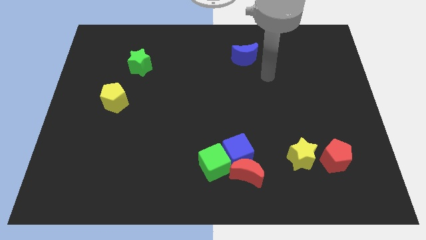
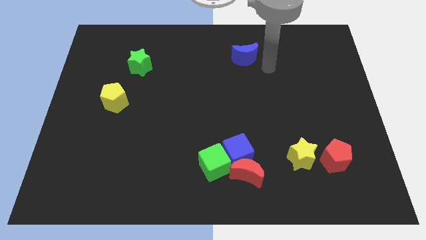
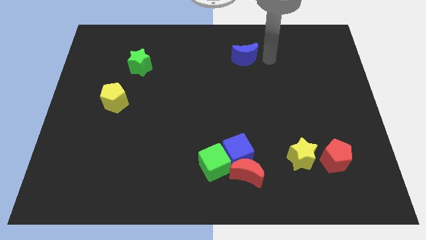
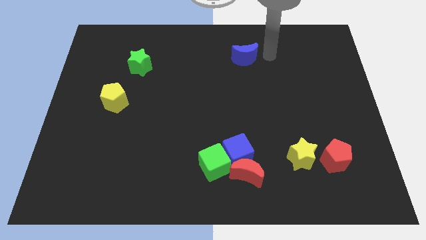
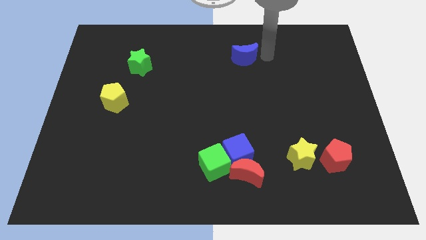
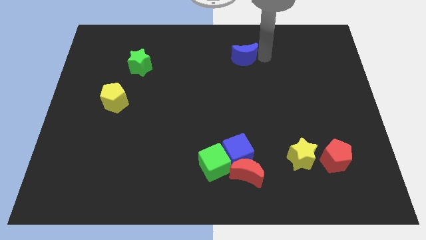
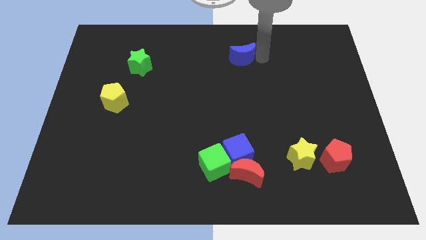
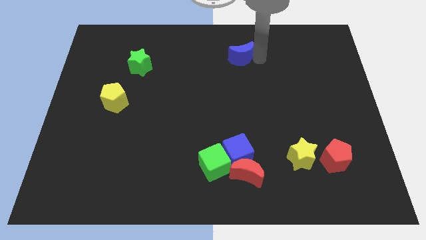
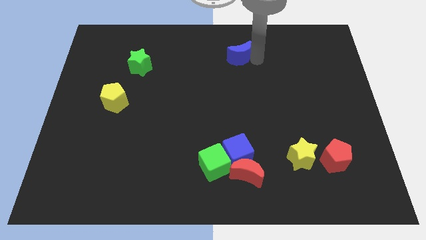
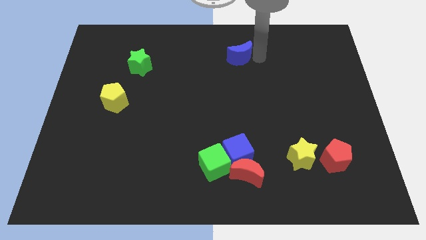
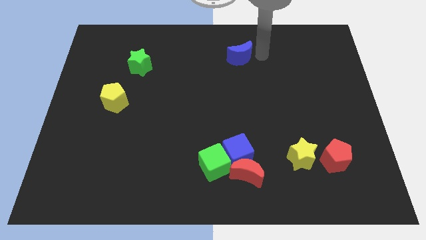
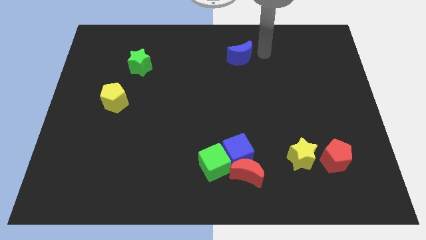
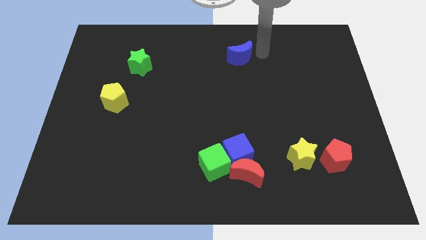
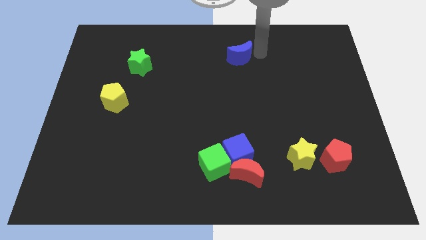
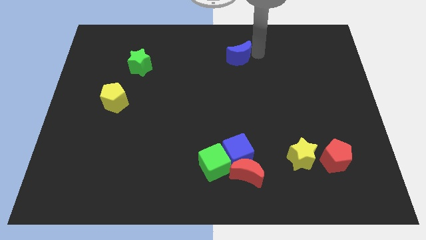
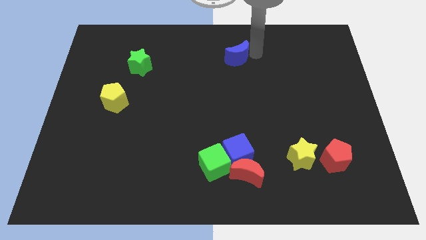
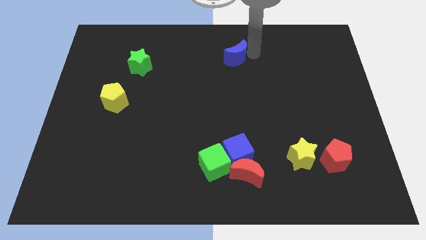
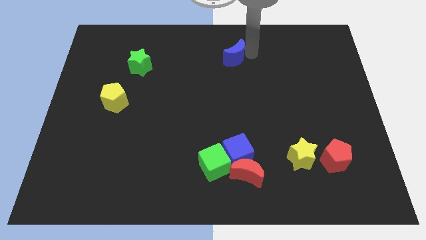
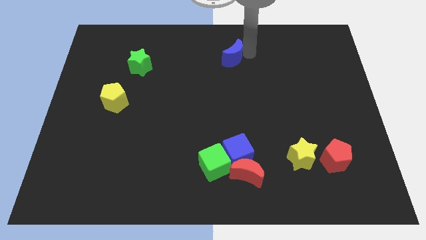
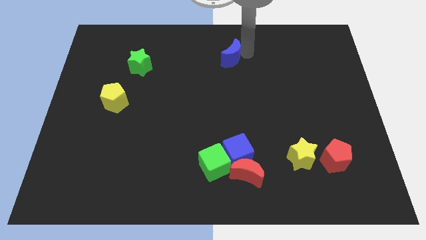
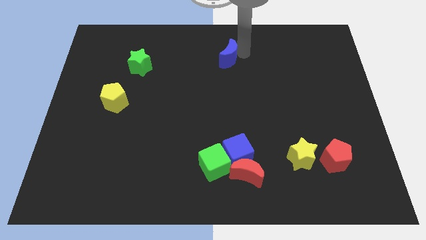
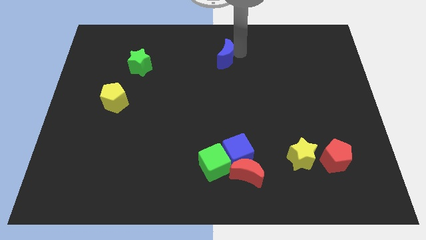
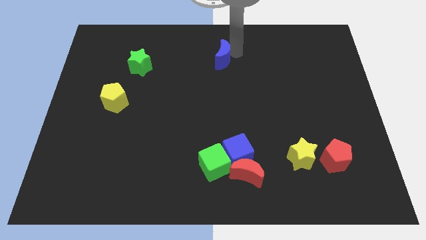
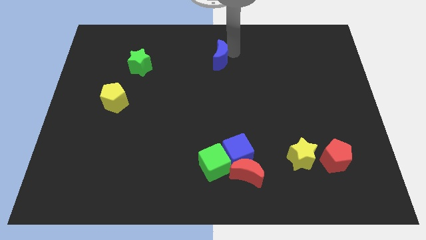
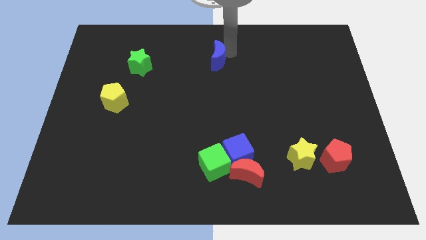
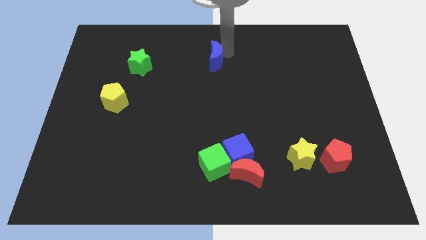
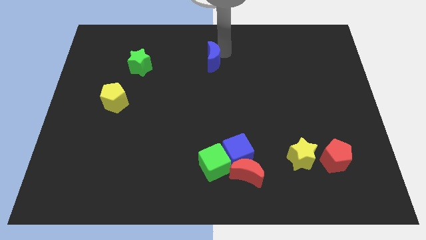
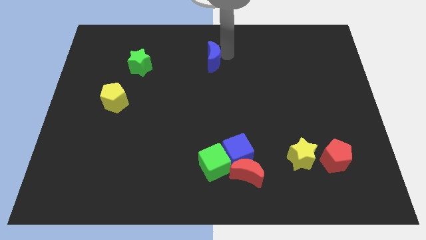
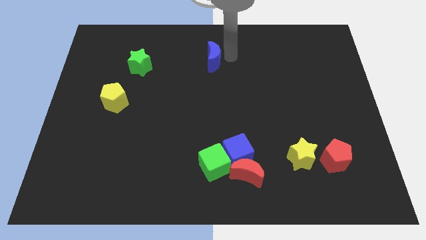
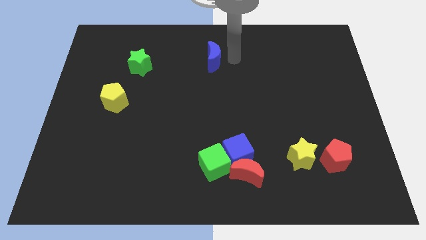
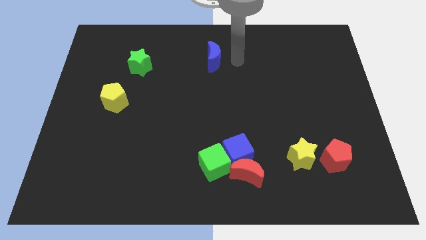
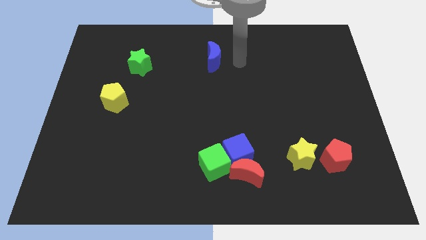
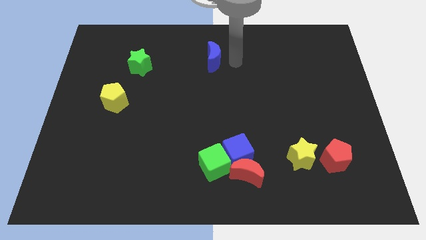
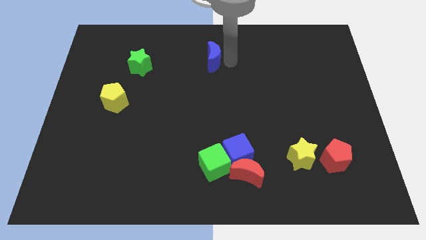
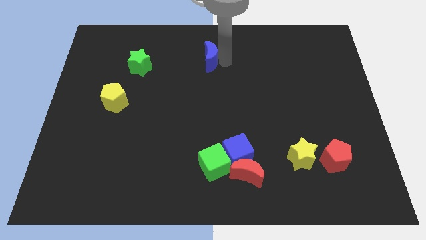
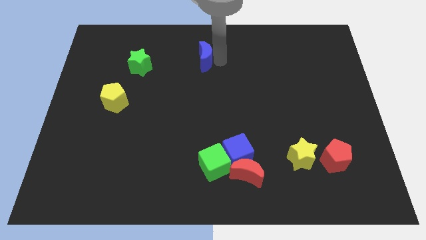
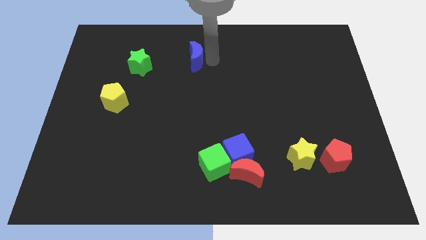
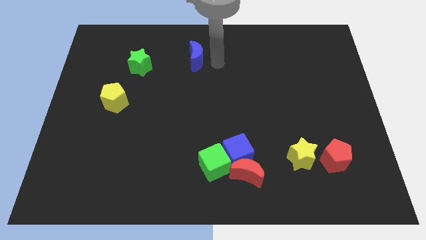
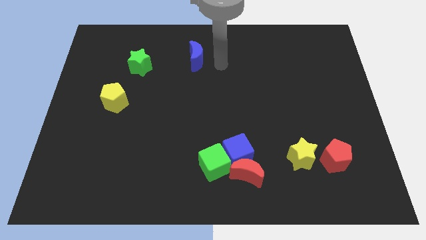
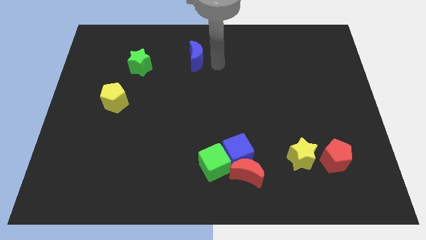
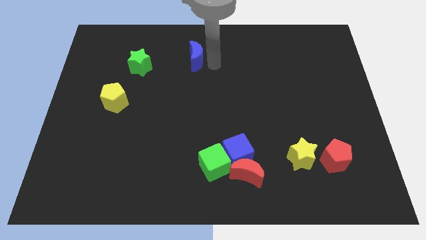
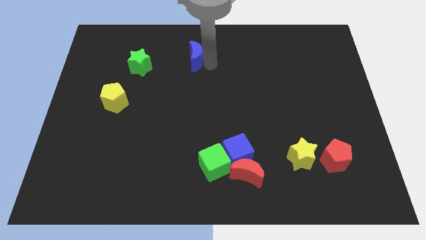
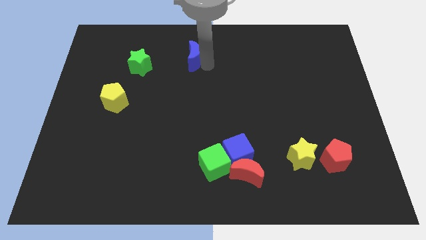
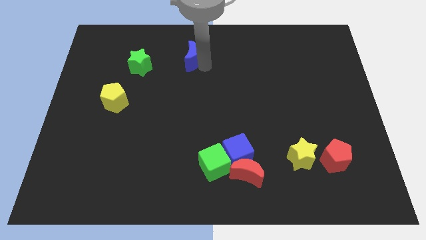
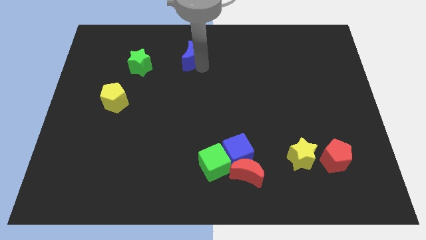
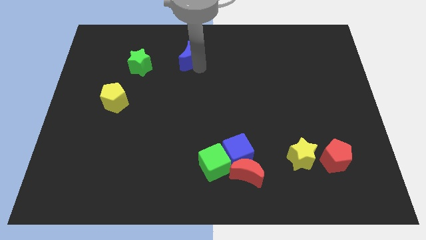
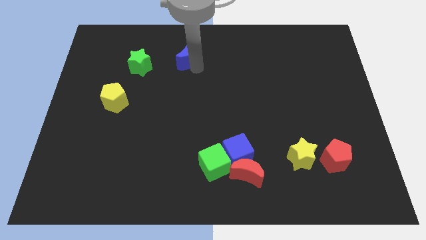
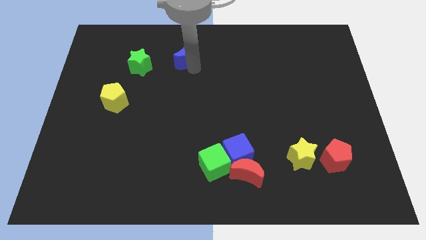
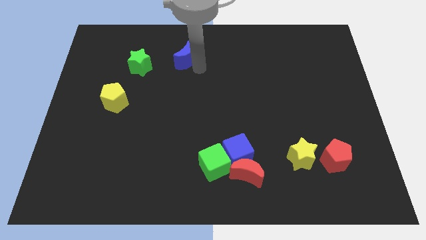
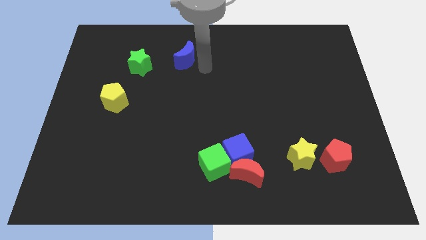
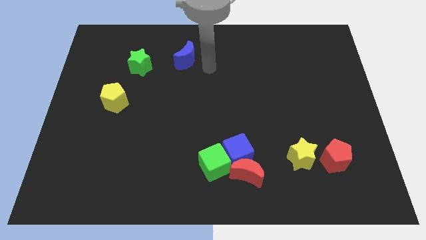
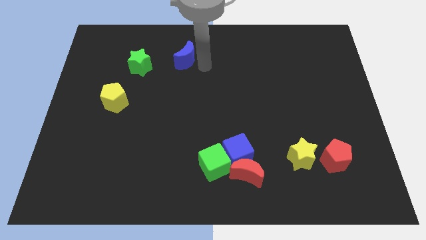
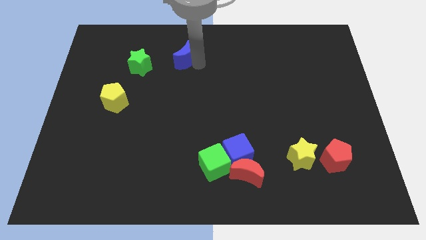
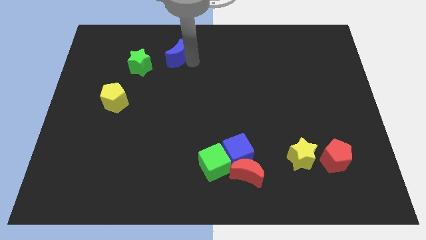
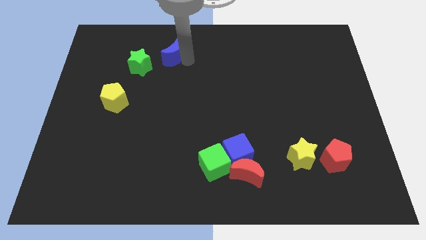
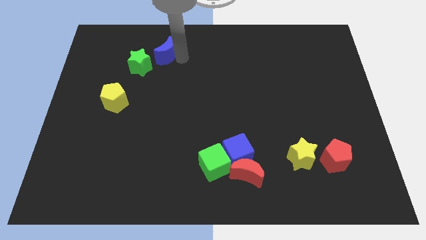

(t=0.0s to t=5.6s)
slide the blue moon left

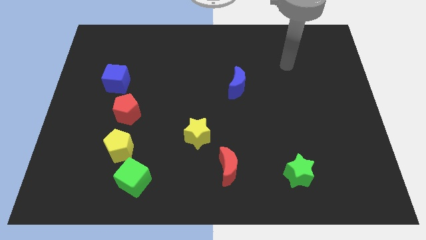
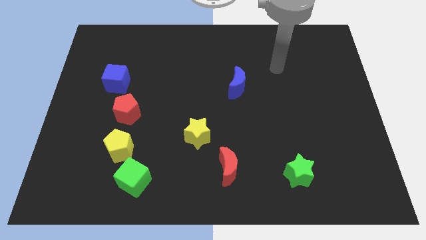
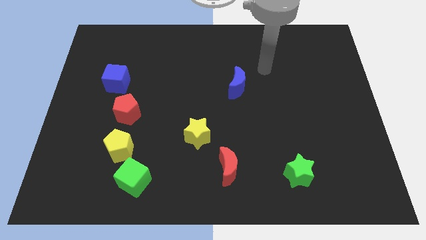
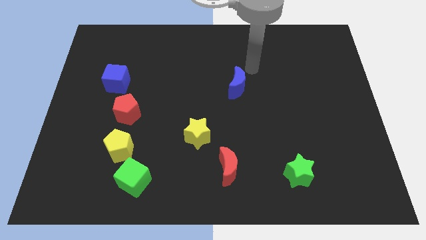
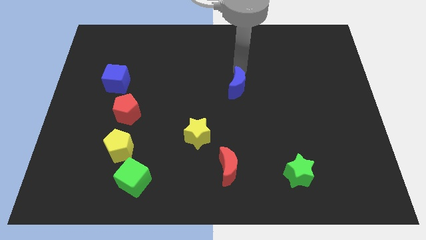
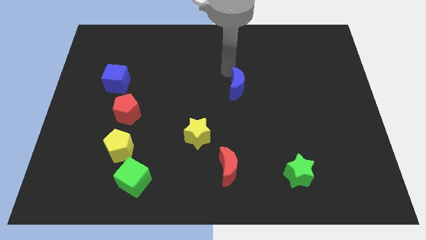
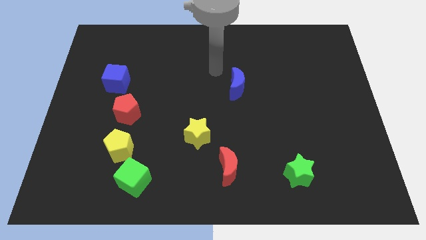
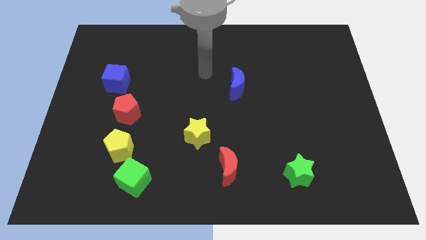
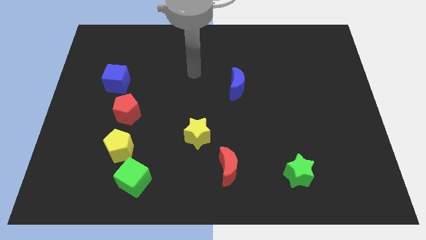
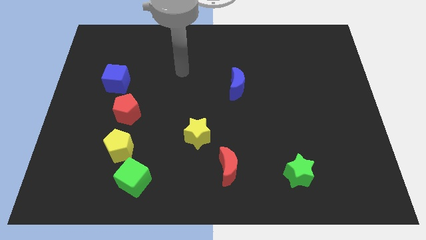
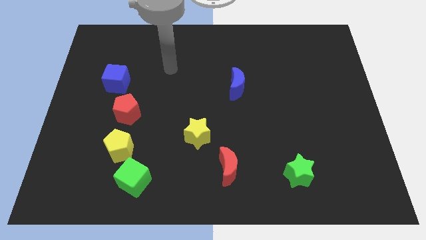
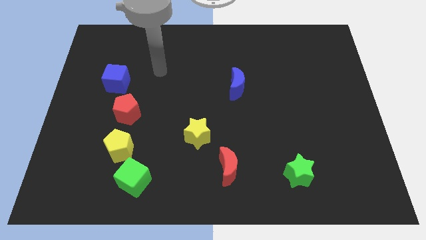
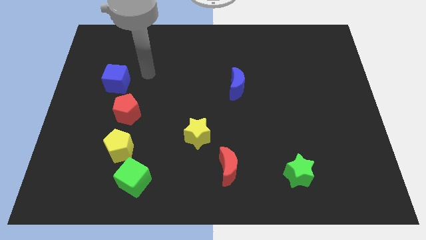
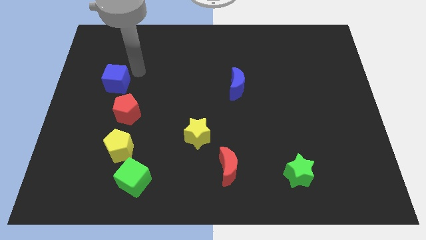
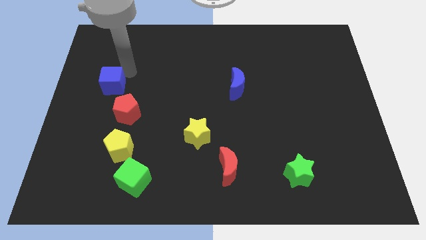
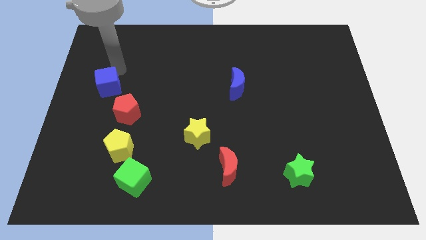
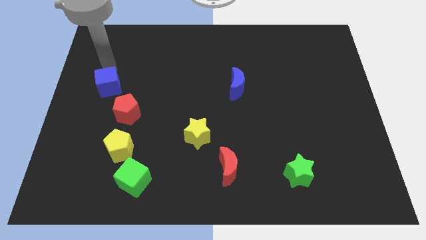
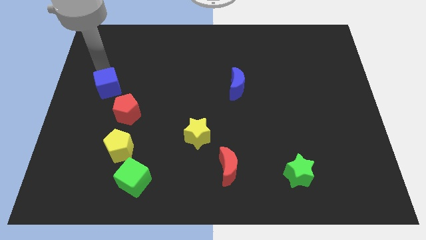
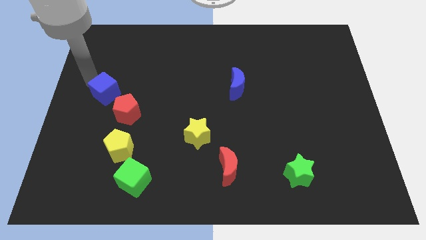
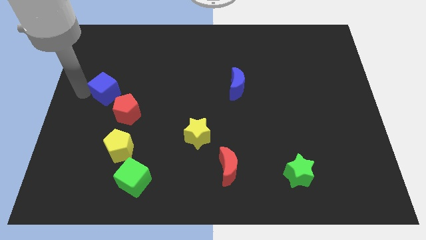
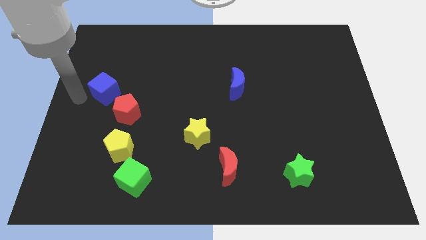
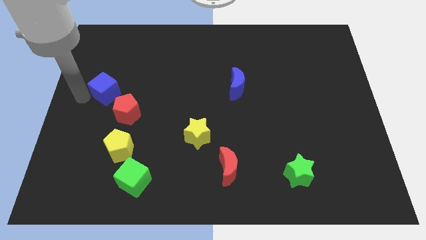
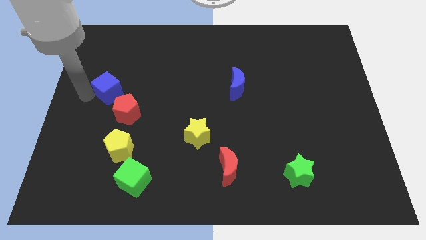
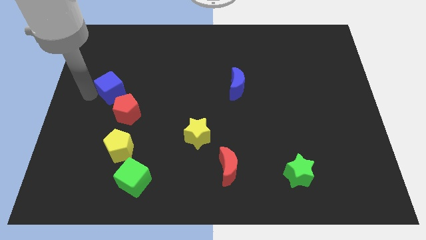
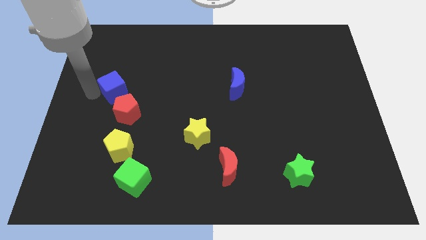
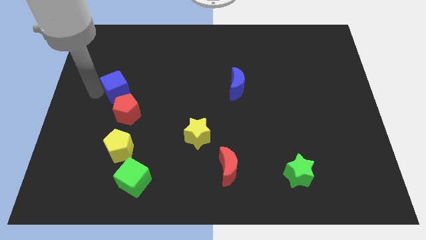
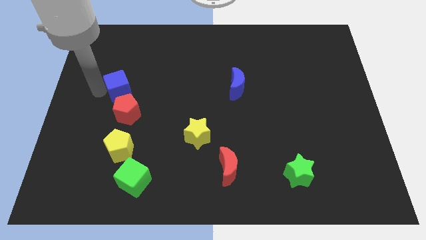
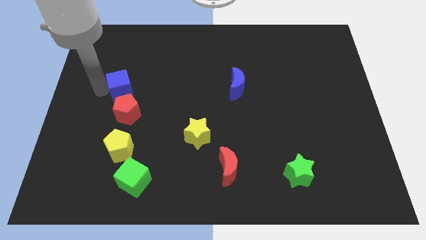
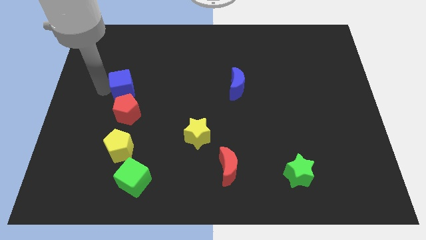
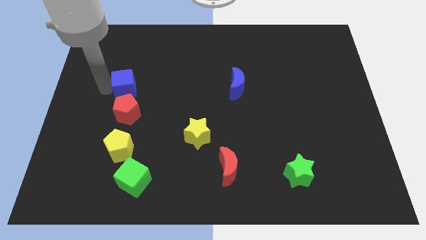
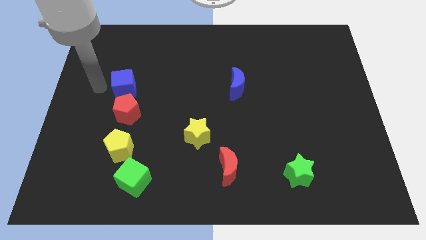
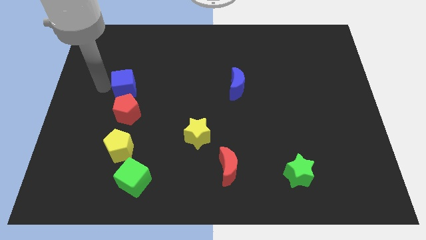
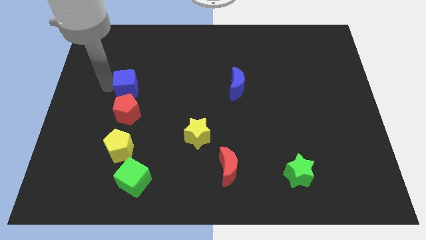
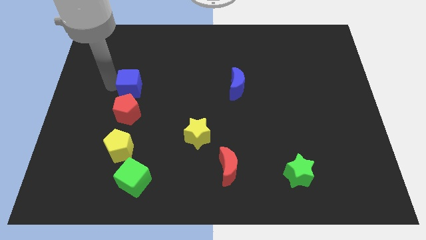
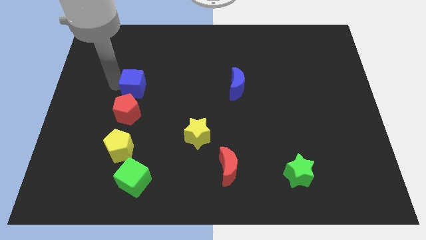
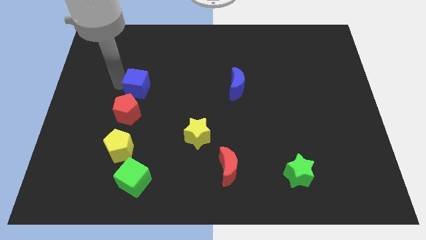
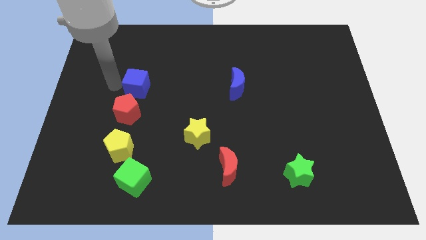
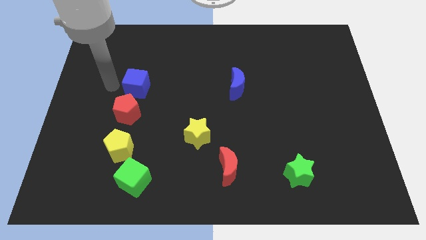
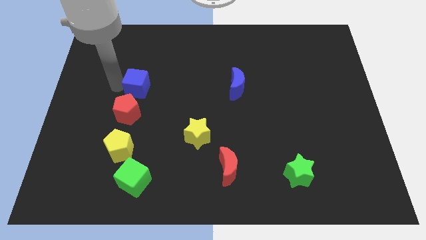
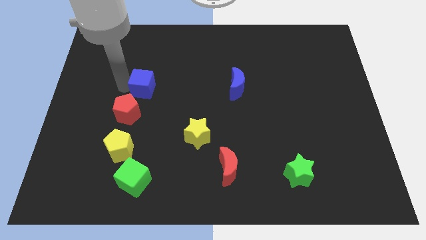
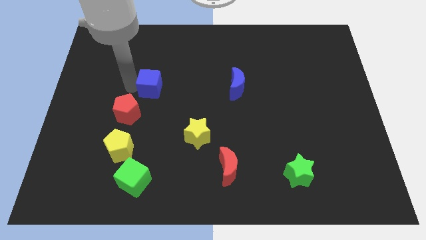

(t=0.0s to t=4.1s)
push the blue cube slightly right
